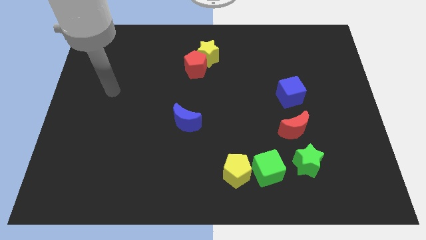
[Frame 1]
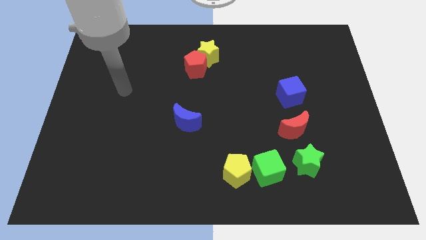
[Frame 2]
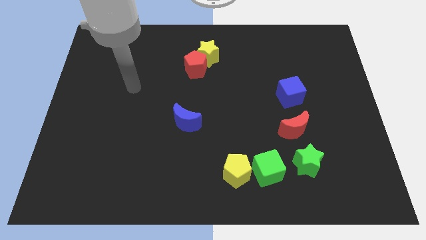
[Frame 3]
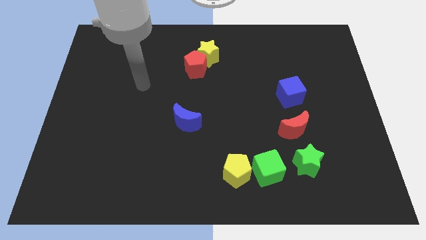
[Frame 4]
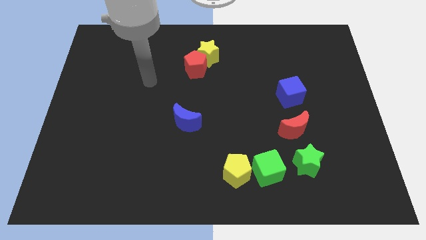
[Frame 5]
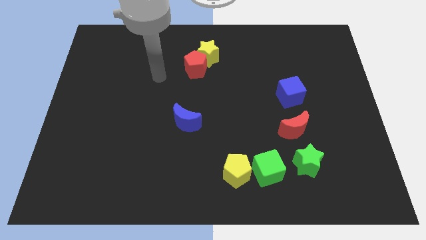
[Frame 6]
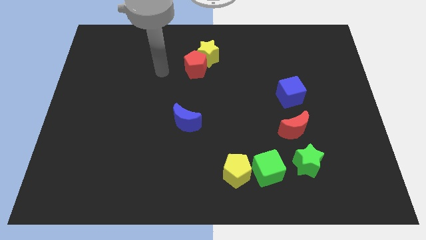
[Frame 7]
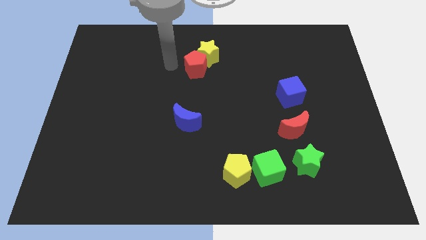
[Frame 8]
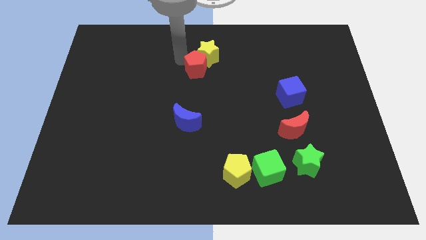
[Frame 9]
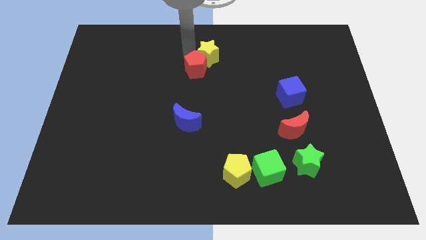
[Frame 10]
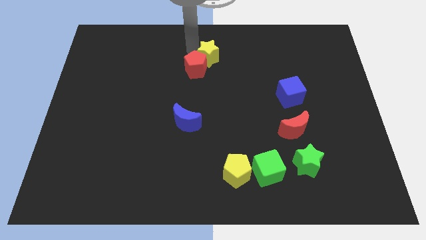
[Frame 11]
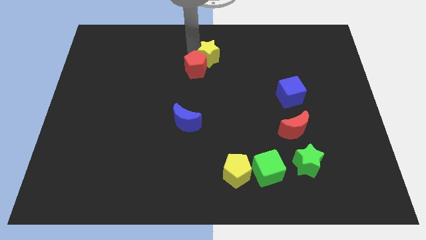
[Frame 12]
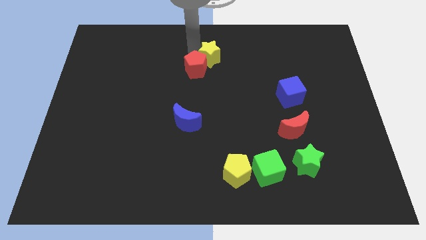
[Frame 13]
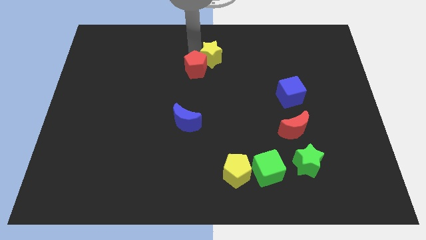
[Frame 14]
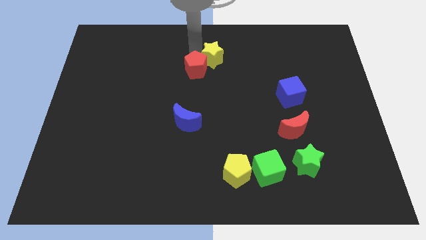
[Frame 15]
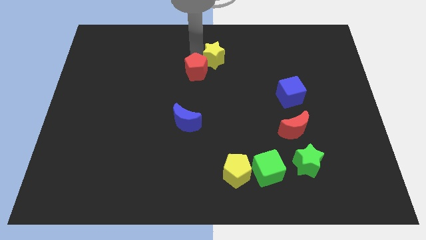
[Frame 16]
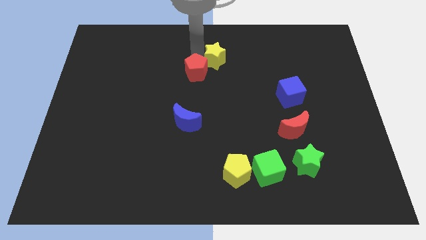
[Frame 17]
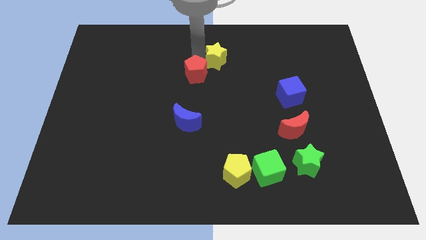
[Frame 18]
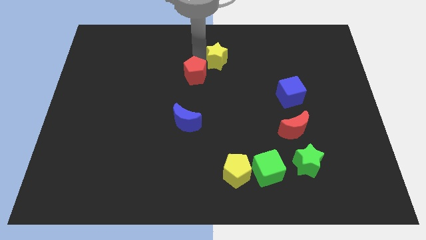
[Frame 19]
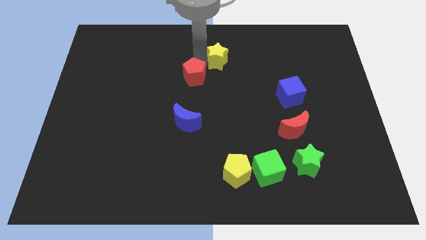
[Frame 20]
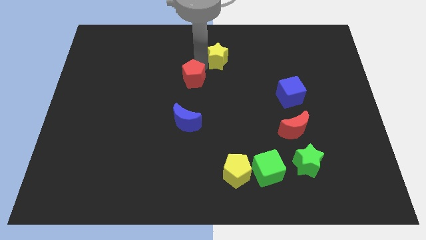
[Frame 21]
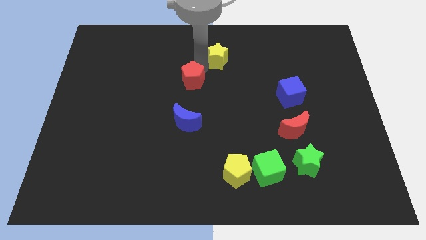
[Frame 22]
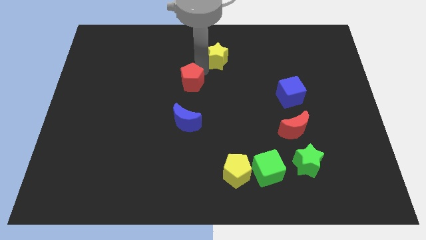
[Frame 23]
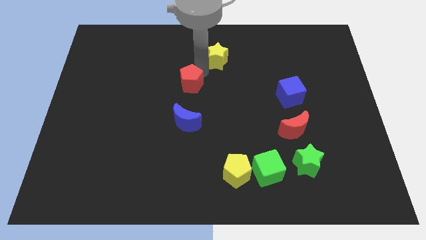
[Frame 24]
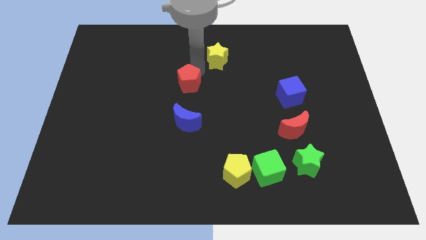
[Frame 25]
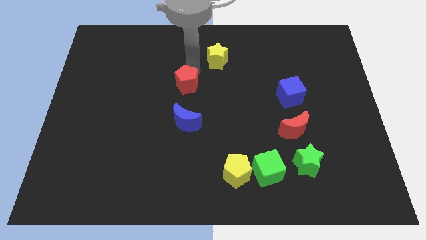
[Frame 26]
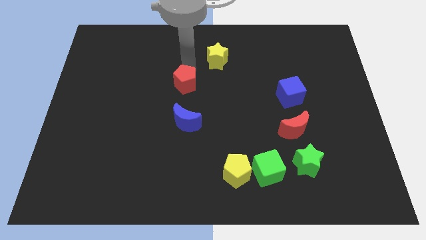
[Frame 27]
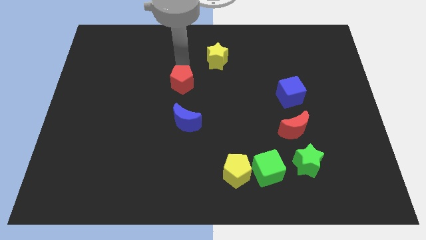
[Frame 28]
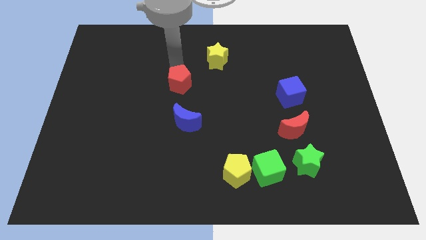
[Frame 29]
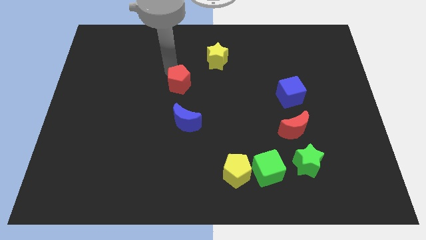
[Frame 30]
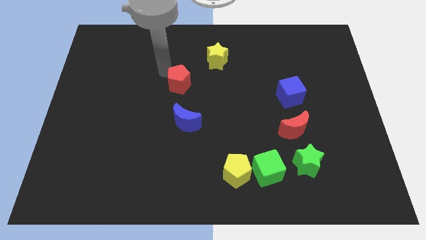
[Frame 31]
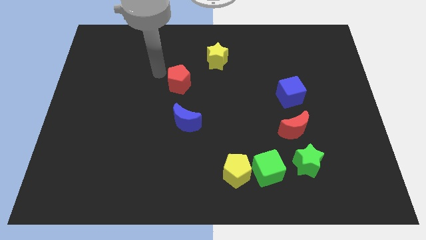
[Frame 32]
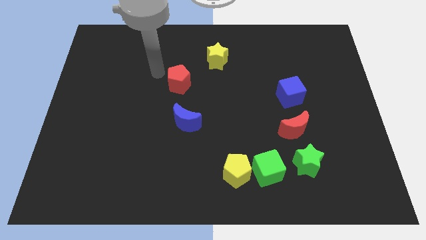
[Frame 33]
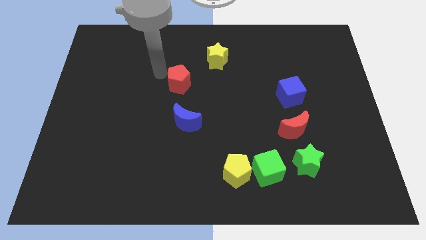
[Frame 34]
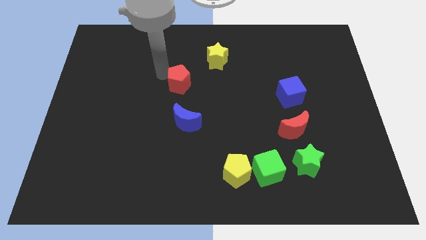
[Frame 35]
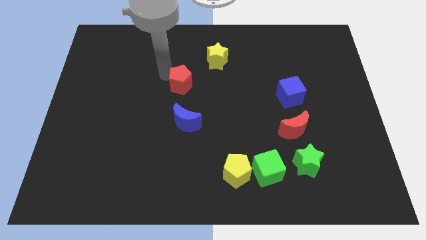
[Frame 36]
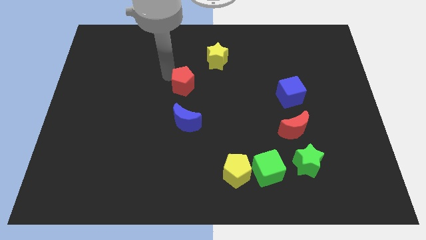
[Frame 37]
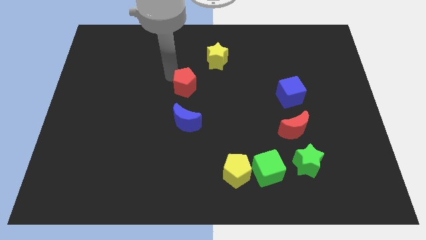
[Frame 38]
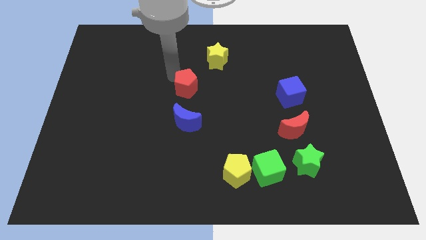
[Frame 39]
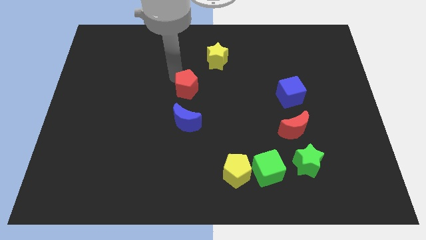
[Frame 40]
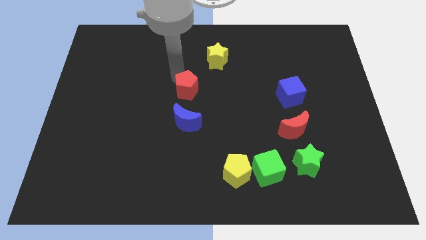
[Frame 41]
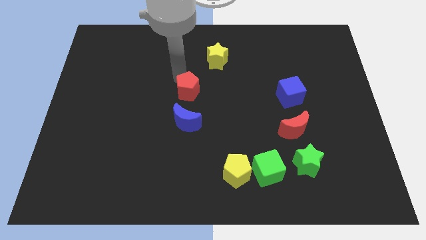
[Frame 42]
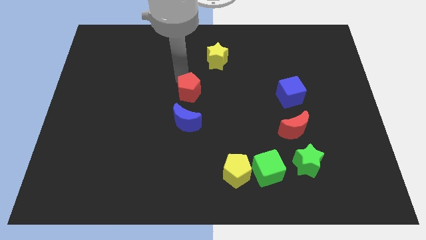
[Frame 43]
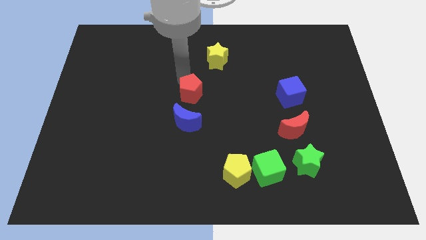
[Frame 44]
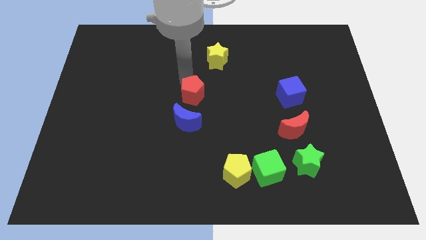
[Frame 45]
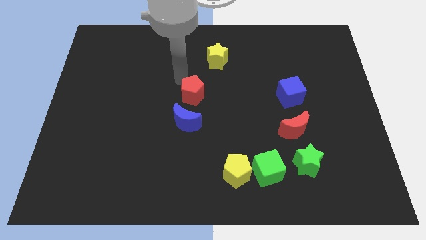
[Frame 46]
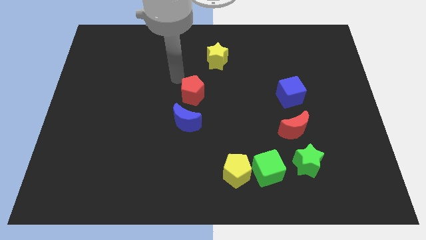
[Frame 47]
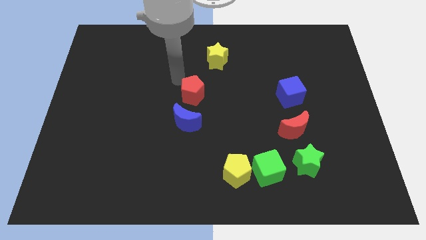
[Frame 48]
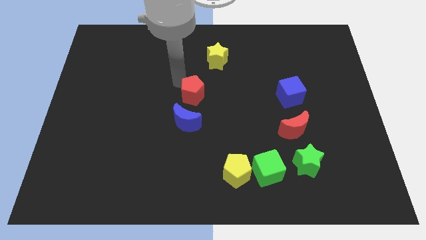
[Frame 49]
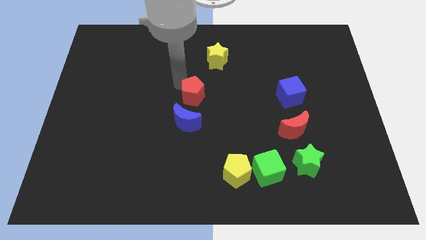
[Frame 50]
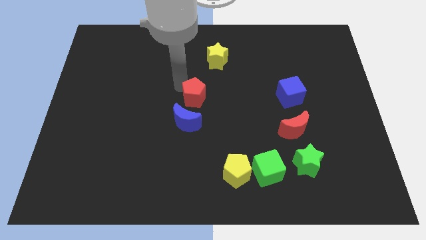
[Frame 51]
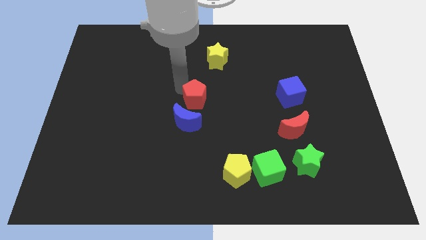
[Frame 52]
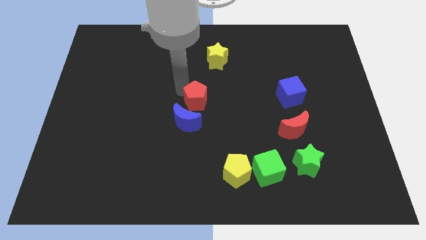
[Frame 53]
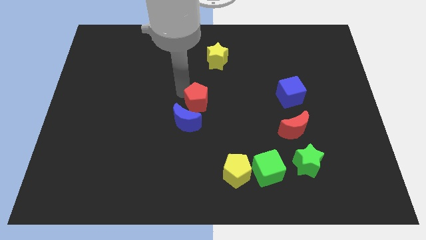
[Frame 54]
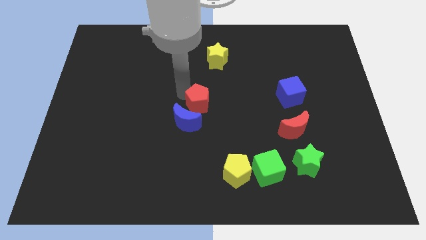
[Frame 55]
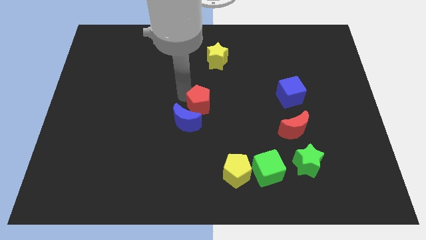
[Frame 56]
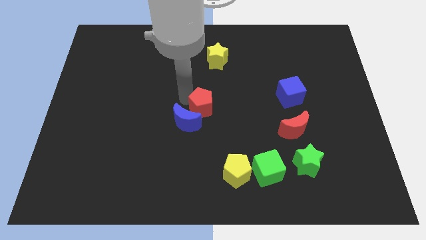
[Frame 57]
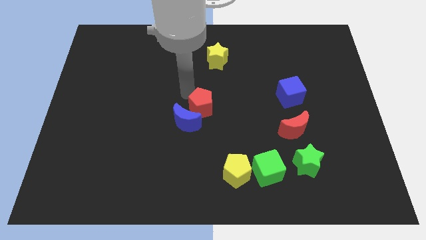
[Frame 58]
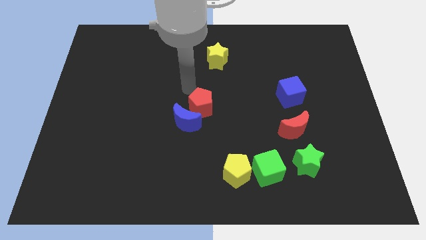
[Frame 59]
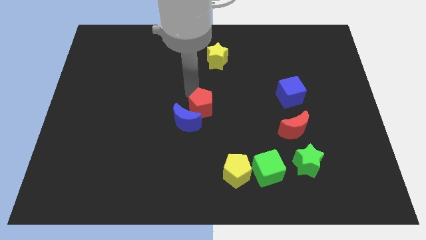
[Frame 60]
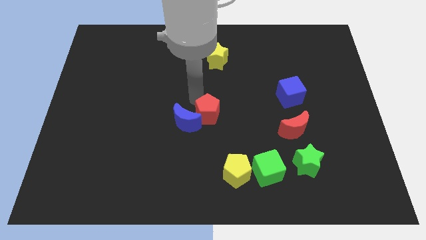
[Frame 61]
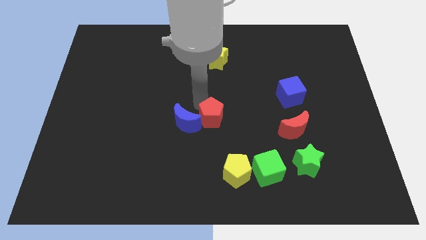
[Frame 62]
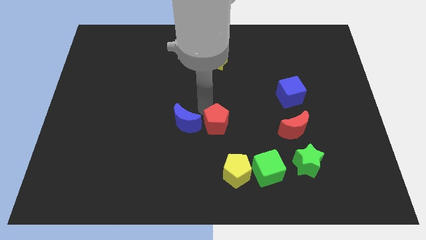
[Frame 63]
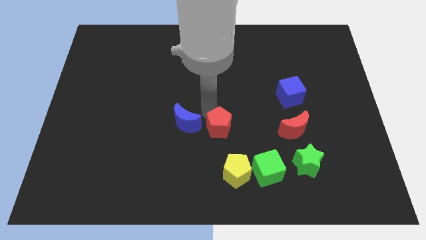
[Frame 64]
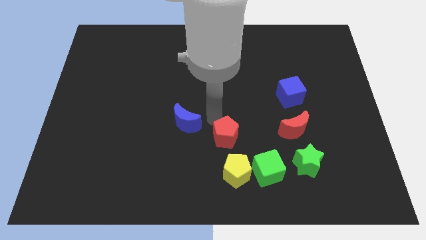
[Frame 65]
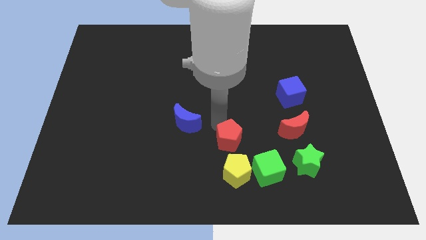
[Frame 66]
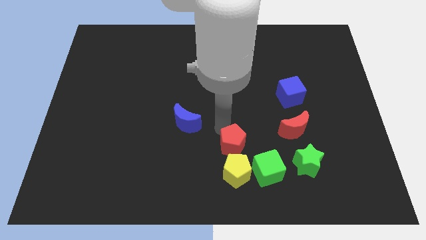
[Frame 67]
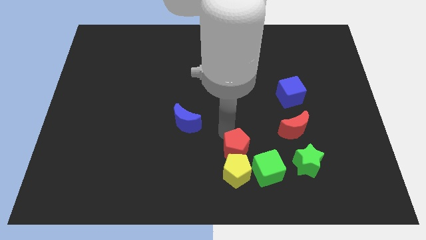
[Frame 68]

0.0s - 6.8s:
move the red pentagon close to the yellow pentagon

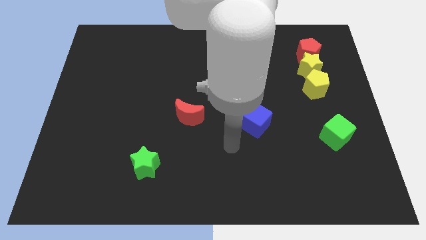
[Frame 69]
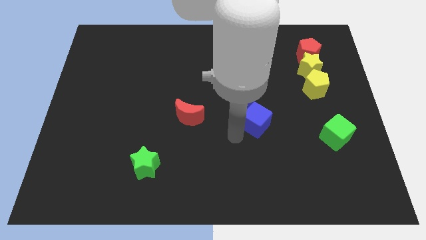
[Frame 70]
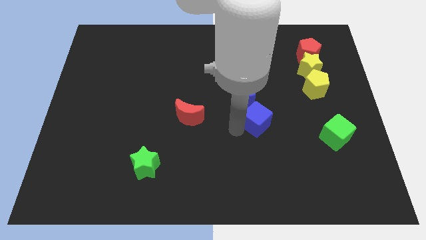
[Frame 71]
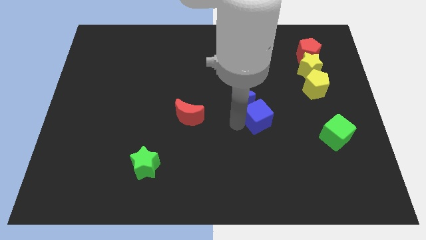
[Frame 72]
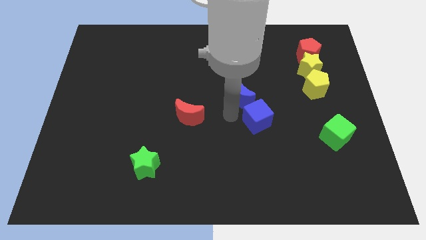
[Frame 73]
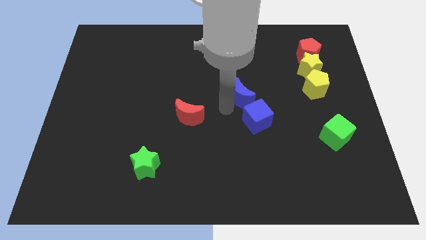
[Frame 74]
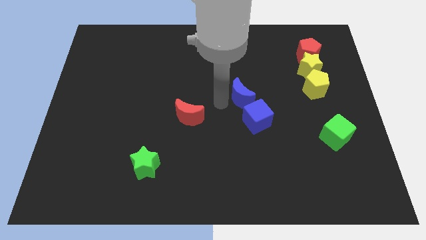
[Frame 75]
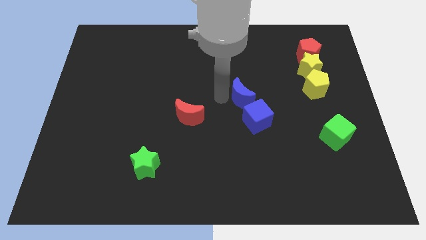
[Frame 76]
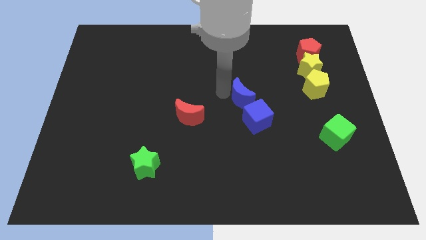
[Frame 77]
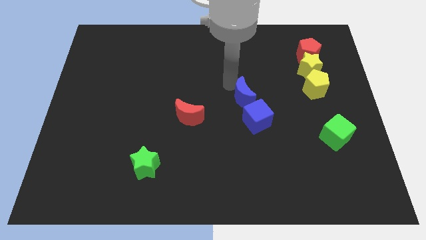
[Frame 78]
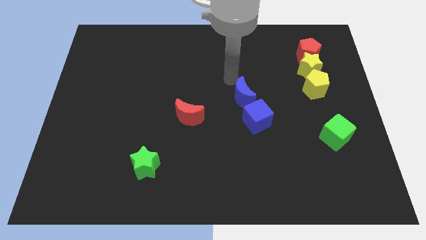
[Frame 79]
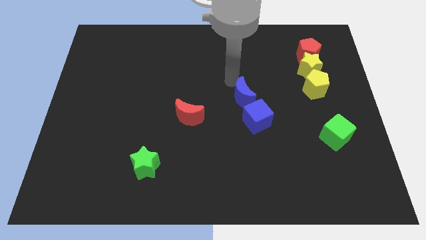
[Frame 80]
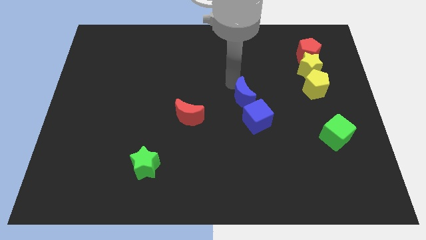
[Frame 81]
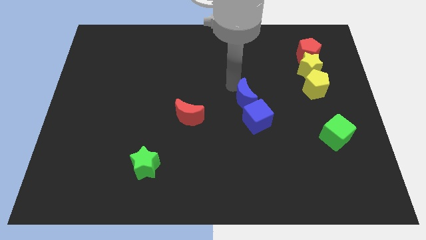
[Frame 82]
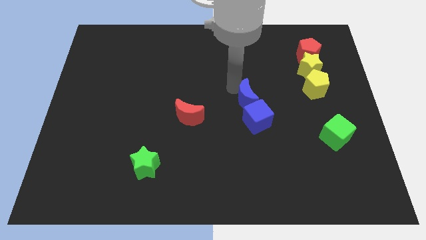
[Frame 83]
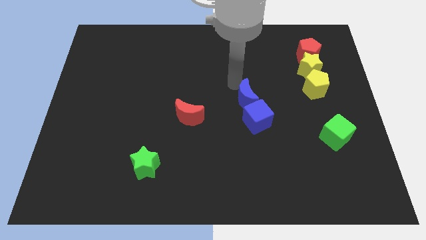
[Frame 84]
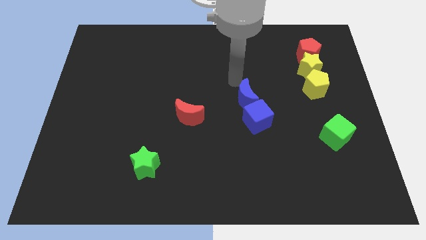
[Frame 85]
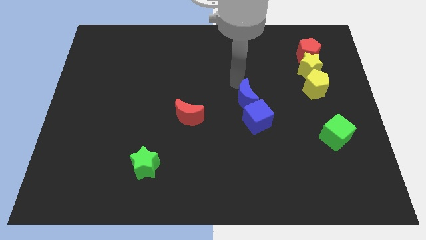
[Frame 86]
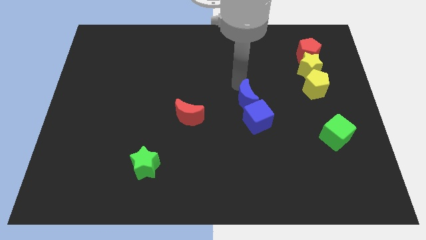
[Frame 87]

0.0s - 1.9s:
put the blue moon to the blue cube
